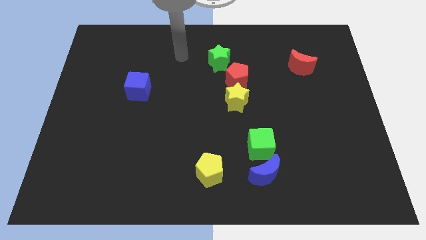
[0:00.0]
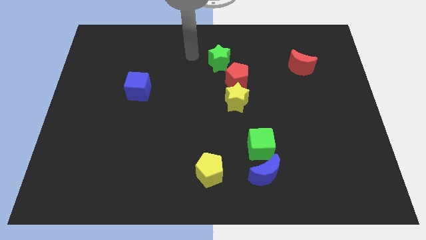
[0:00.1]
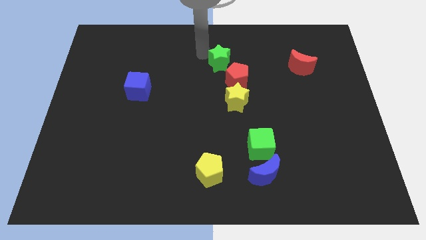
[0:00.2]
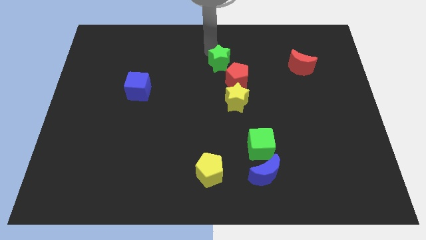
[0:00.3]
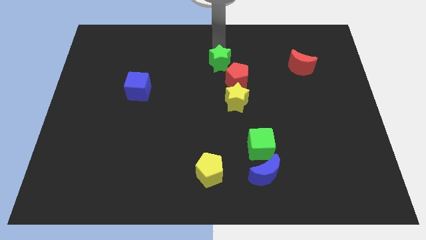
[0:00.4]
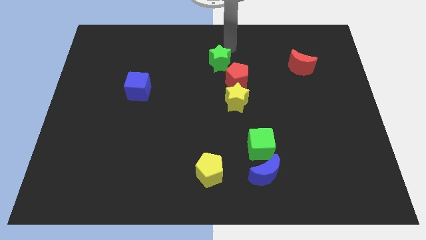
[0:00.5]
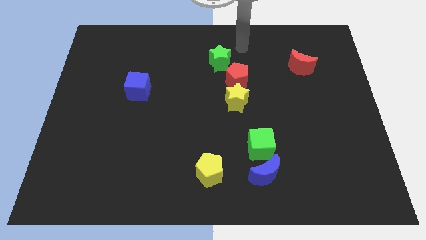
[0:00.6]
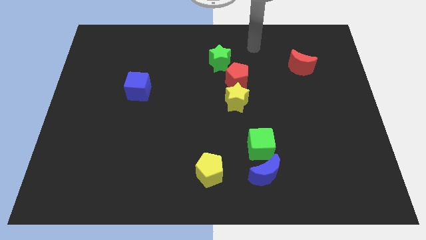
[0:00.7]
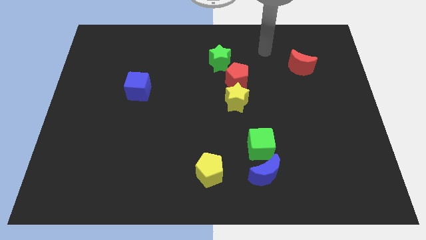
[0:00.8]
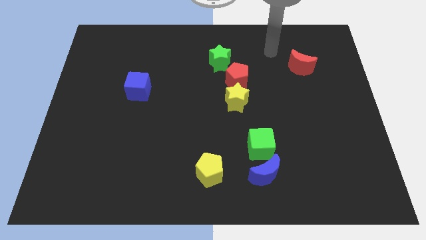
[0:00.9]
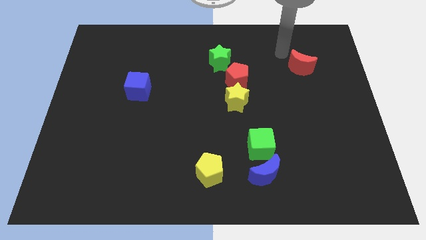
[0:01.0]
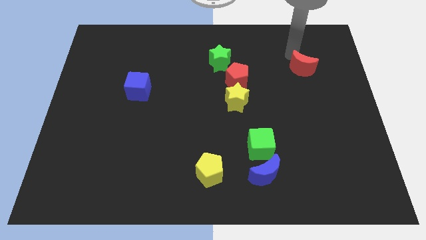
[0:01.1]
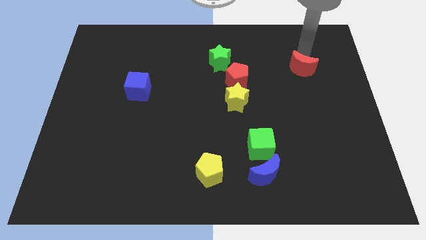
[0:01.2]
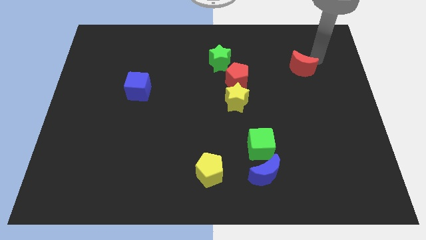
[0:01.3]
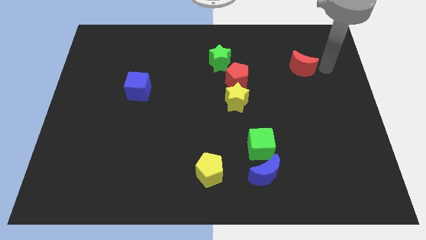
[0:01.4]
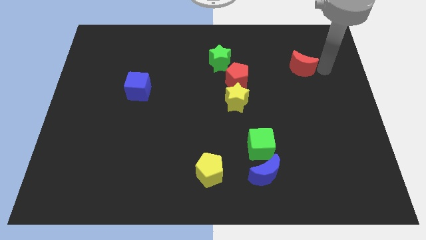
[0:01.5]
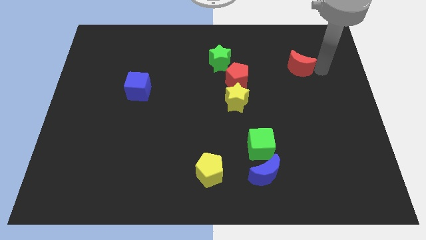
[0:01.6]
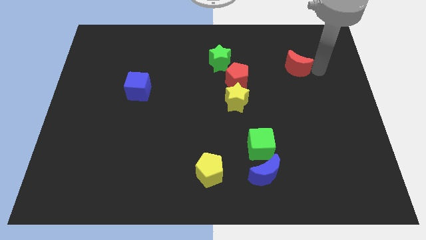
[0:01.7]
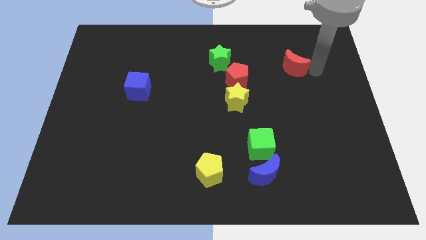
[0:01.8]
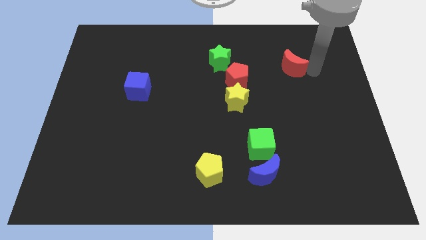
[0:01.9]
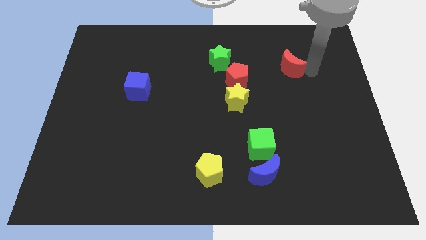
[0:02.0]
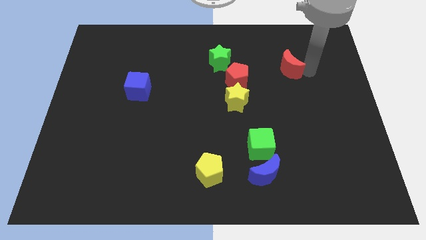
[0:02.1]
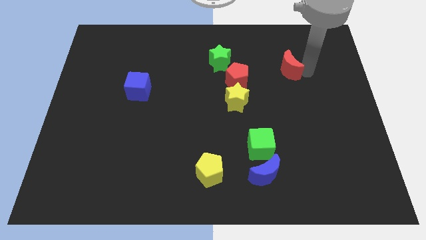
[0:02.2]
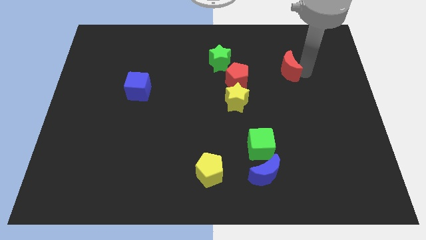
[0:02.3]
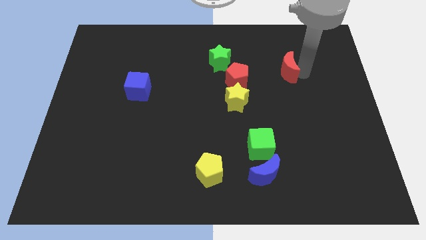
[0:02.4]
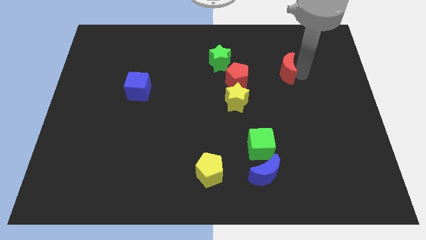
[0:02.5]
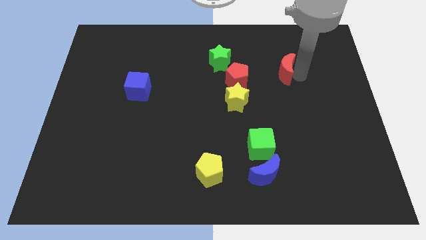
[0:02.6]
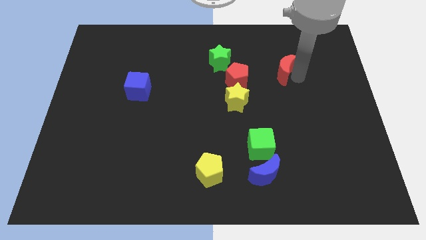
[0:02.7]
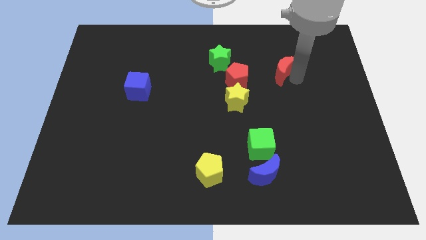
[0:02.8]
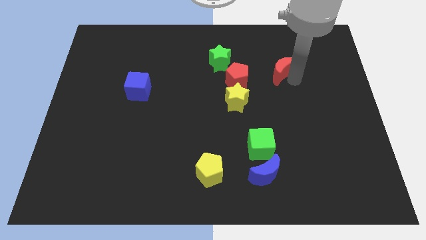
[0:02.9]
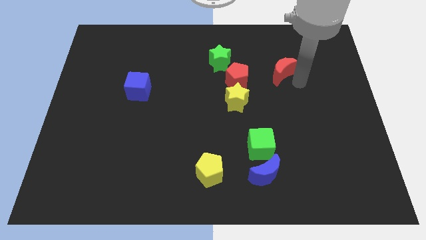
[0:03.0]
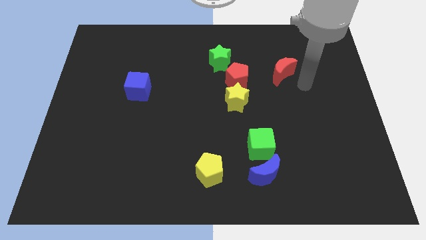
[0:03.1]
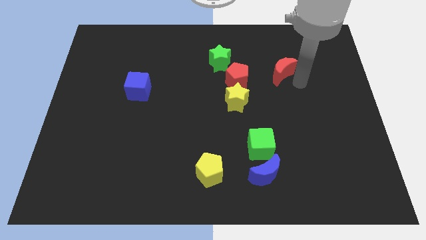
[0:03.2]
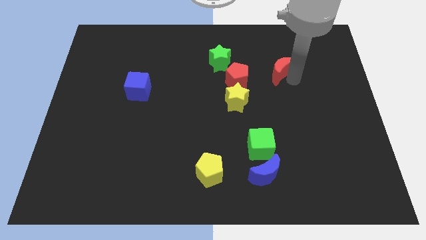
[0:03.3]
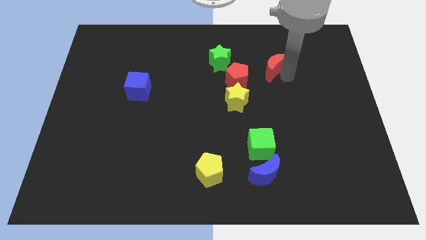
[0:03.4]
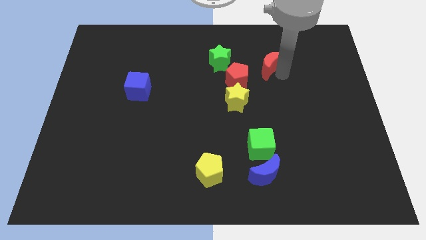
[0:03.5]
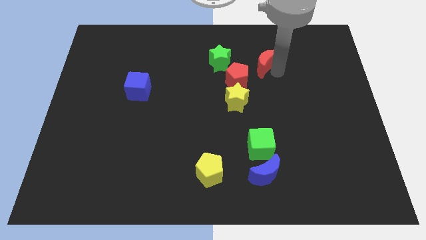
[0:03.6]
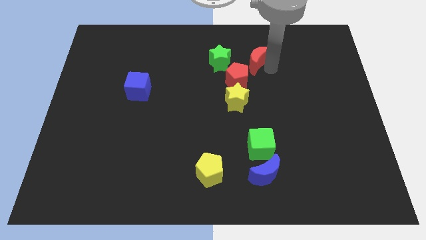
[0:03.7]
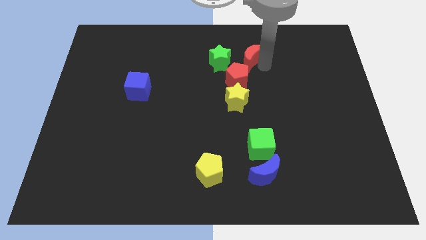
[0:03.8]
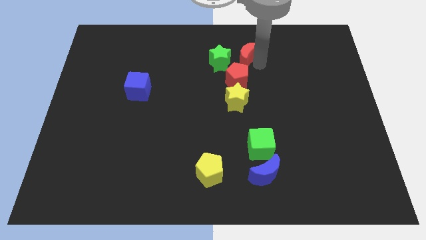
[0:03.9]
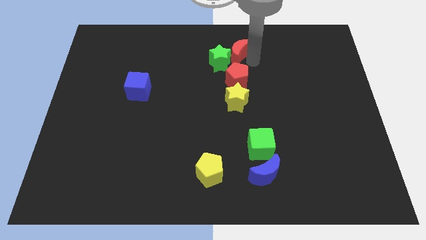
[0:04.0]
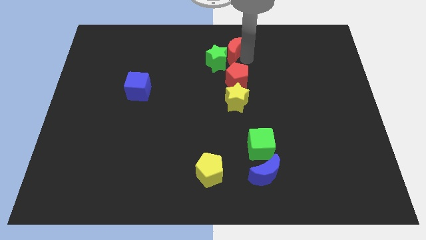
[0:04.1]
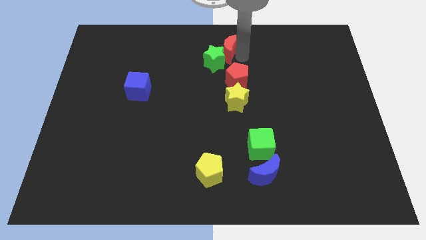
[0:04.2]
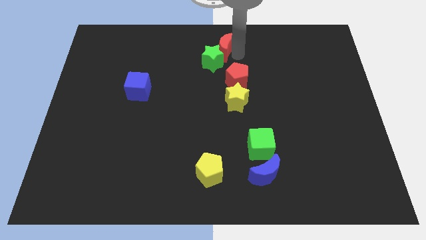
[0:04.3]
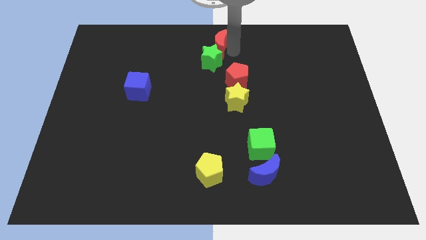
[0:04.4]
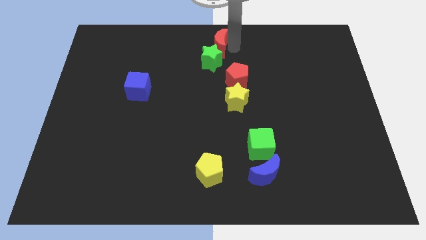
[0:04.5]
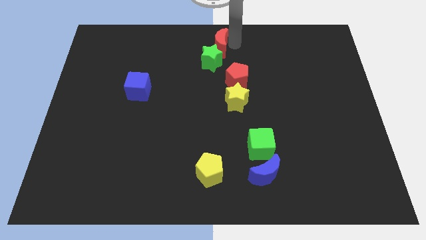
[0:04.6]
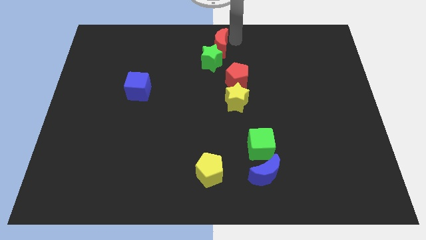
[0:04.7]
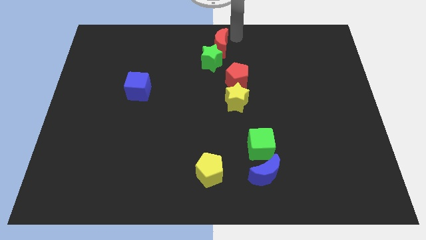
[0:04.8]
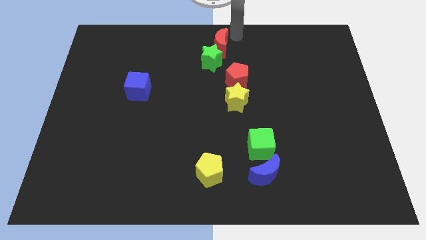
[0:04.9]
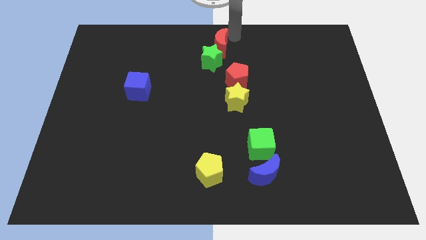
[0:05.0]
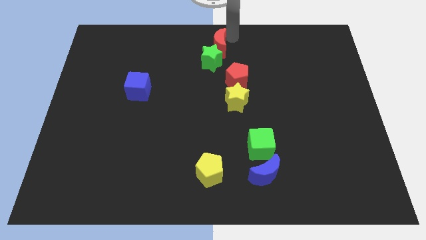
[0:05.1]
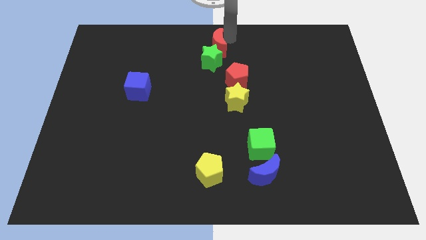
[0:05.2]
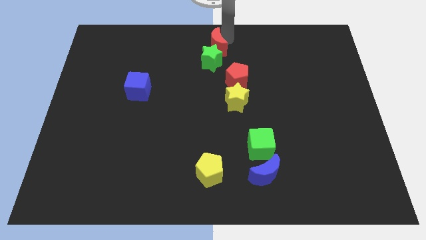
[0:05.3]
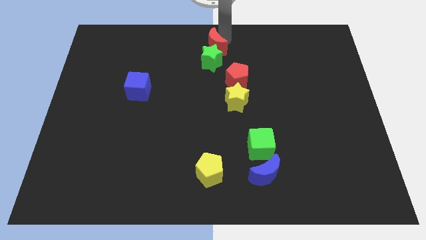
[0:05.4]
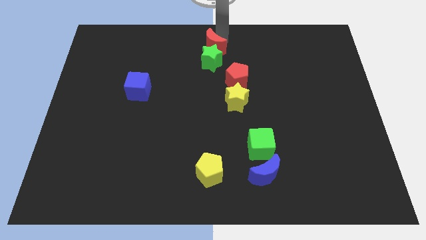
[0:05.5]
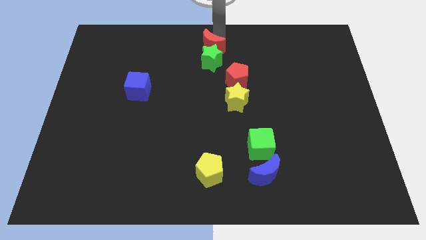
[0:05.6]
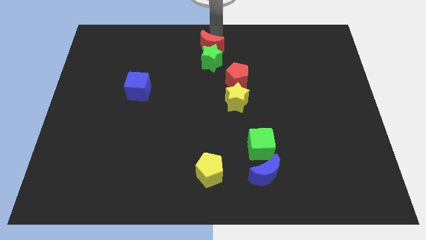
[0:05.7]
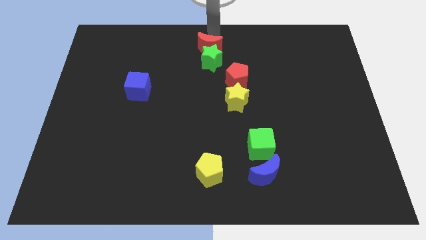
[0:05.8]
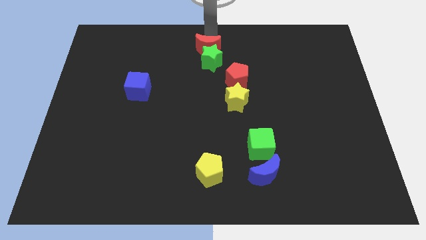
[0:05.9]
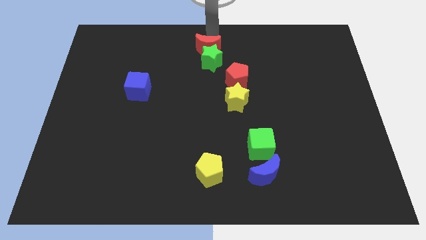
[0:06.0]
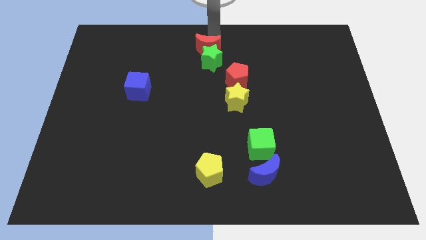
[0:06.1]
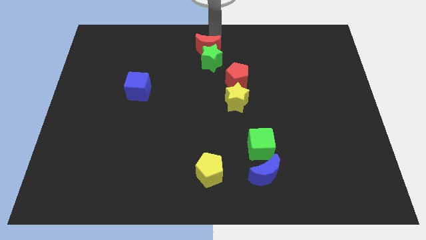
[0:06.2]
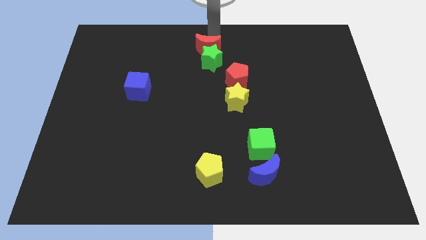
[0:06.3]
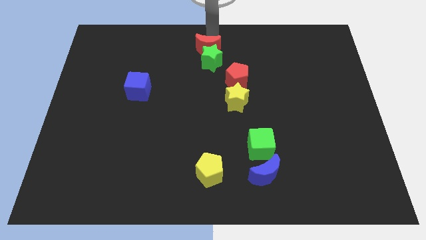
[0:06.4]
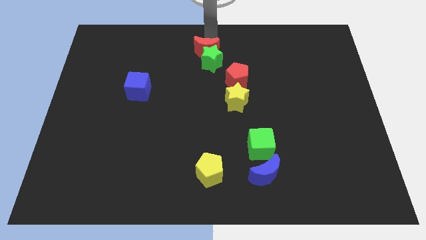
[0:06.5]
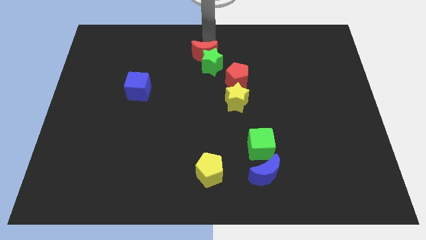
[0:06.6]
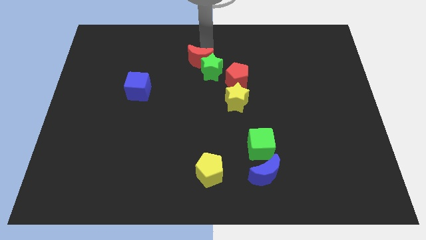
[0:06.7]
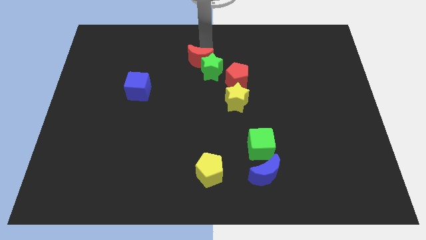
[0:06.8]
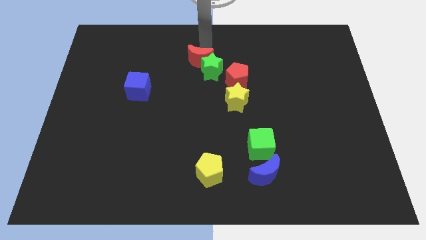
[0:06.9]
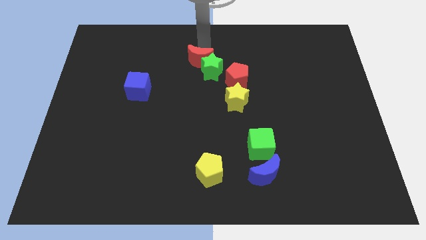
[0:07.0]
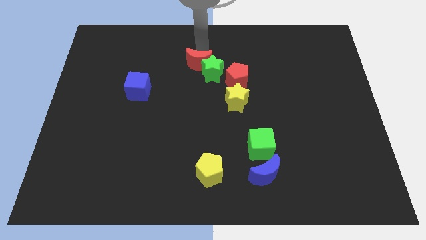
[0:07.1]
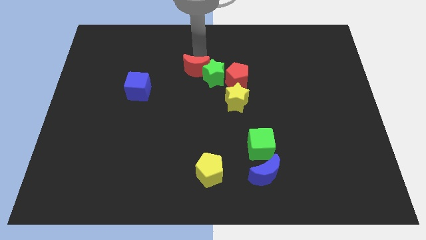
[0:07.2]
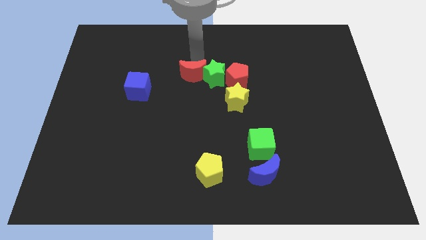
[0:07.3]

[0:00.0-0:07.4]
slide the red moon to the bottom left of the green star
